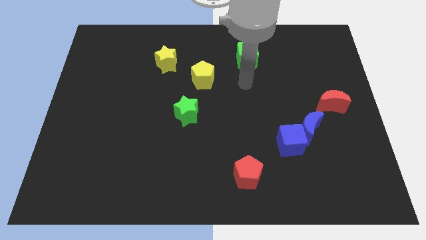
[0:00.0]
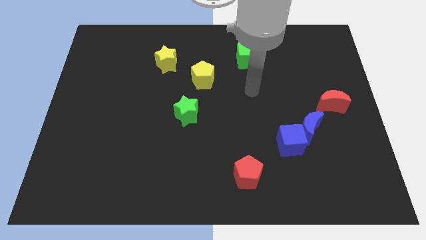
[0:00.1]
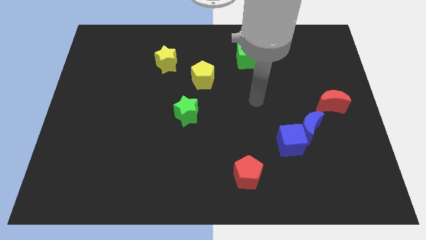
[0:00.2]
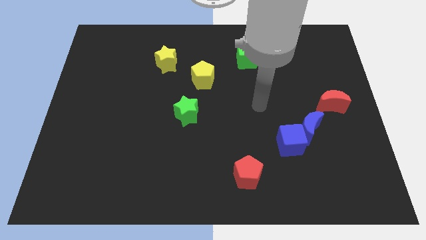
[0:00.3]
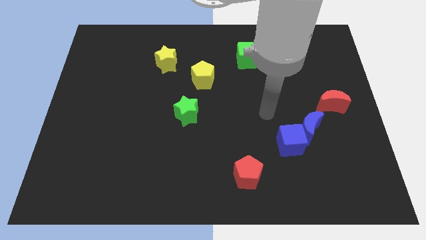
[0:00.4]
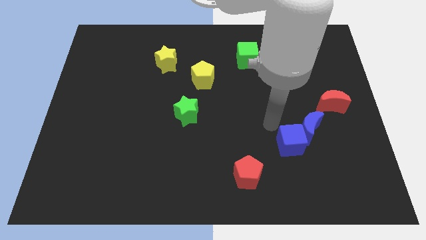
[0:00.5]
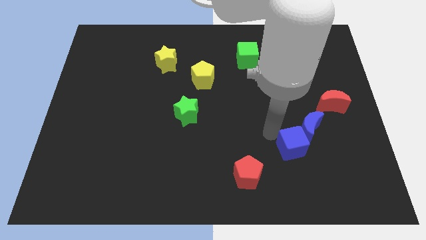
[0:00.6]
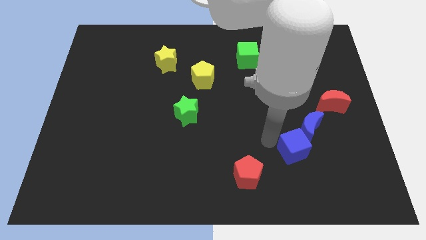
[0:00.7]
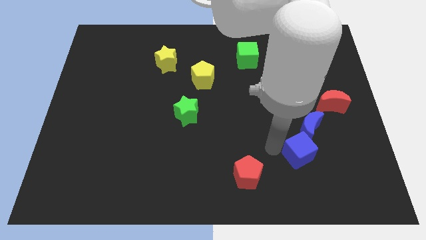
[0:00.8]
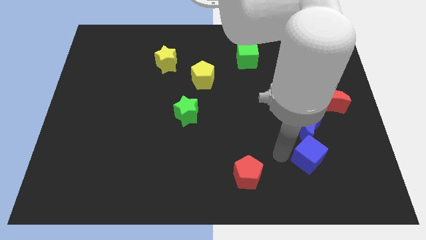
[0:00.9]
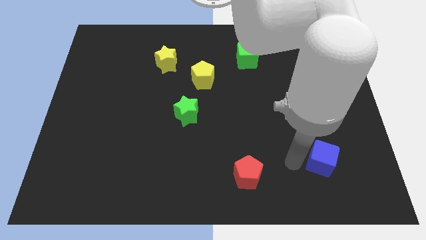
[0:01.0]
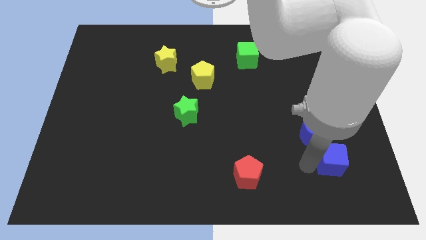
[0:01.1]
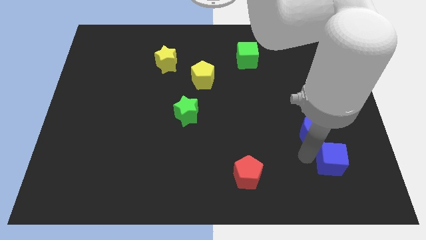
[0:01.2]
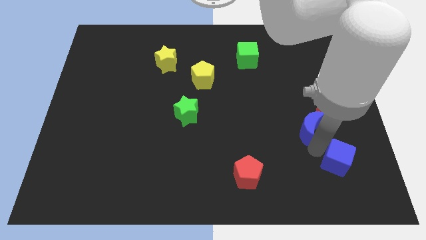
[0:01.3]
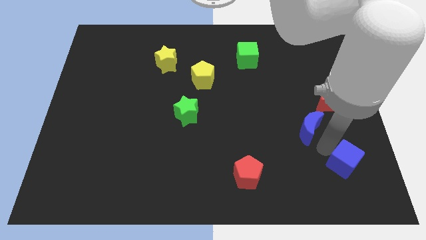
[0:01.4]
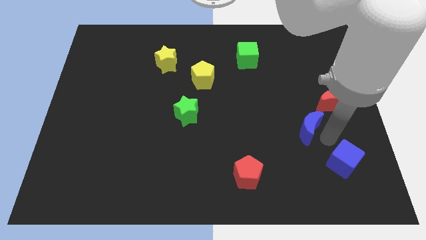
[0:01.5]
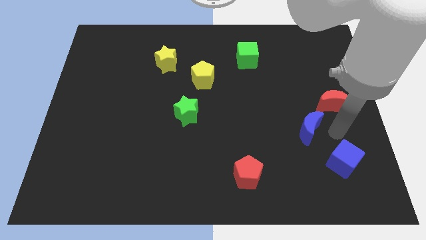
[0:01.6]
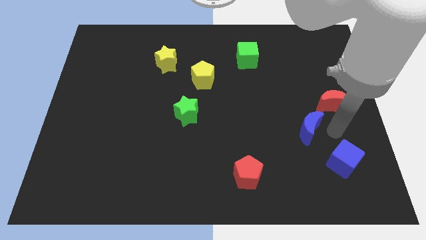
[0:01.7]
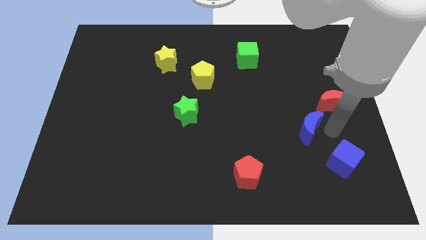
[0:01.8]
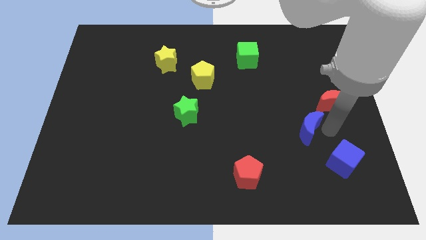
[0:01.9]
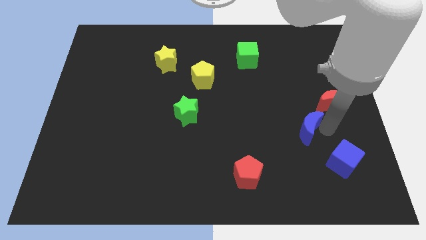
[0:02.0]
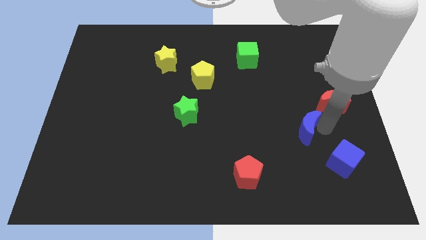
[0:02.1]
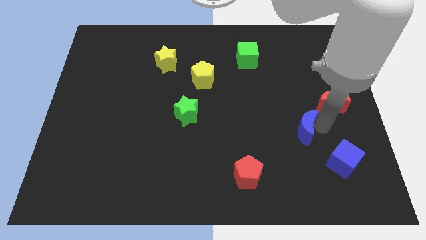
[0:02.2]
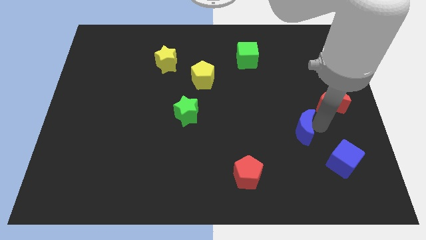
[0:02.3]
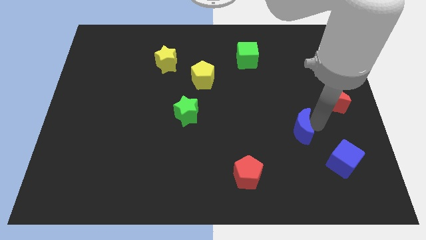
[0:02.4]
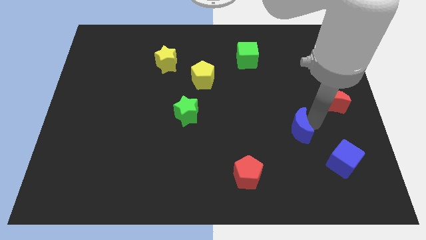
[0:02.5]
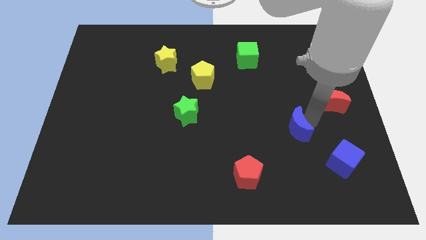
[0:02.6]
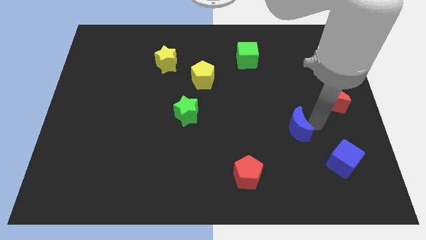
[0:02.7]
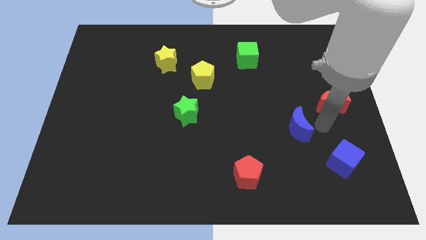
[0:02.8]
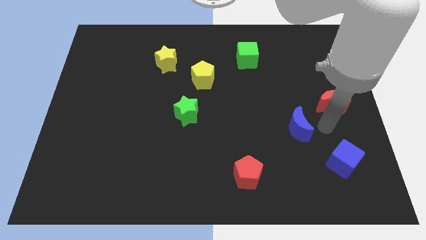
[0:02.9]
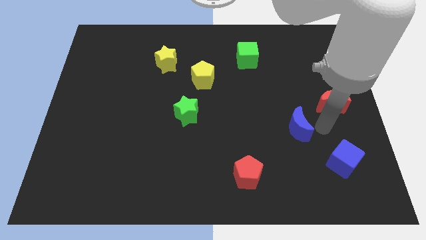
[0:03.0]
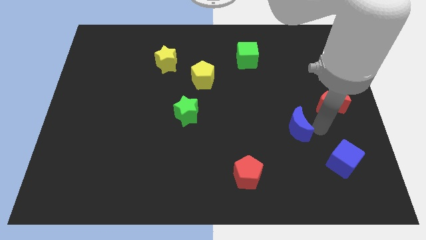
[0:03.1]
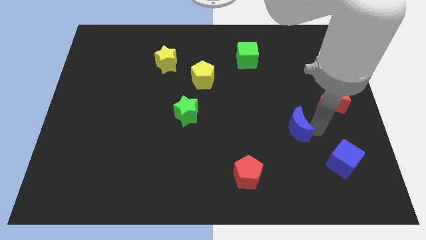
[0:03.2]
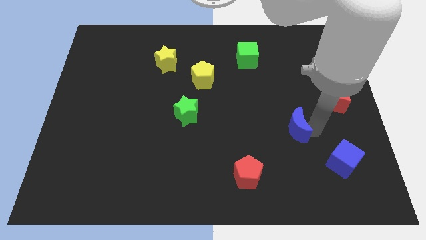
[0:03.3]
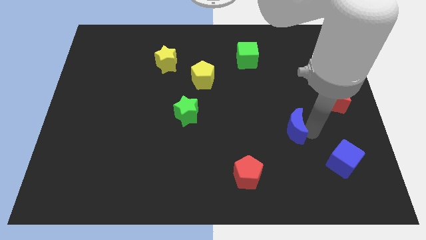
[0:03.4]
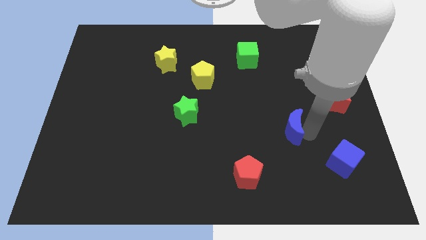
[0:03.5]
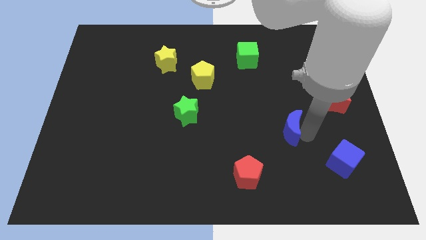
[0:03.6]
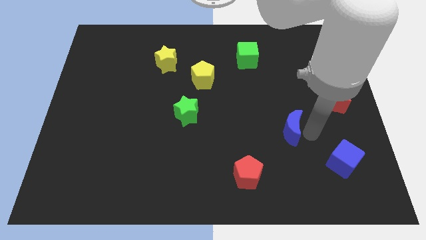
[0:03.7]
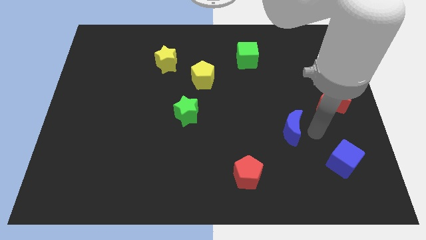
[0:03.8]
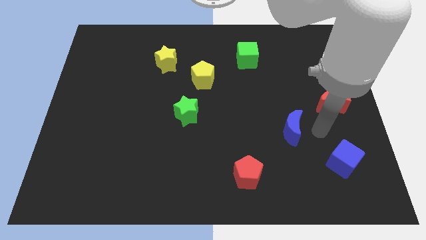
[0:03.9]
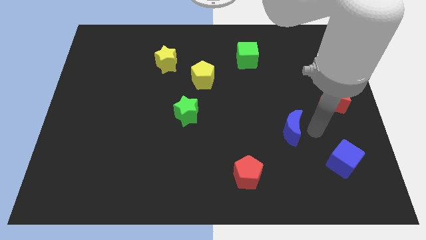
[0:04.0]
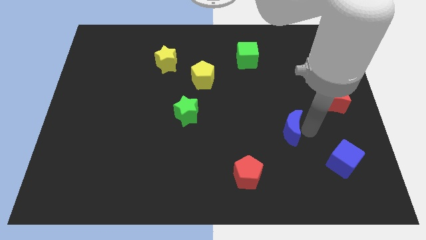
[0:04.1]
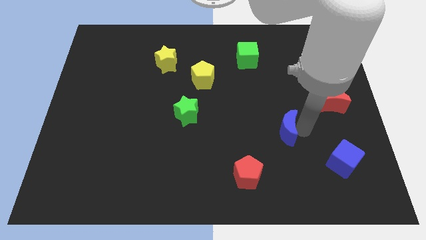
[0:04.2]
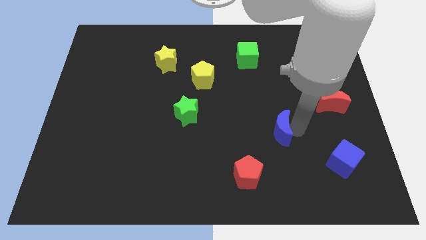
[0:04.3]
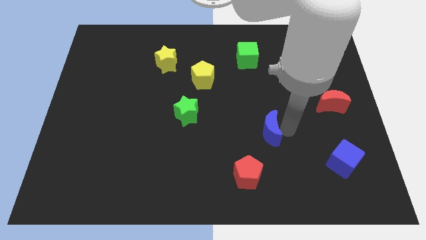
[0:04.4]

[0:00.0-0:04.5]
move the blue moon to the left slightly

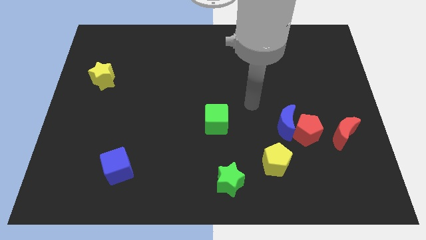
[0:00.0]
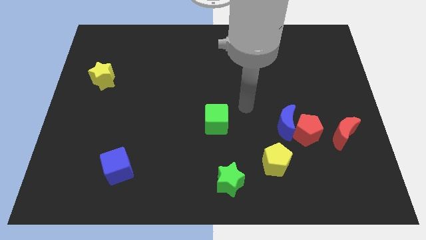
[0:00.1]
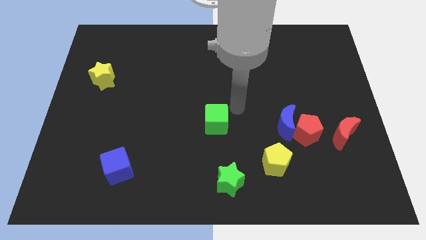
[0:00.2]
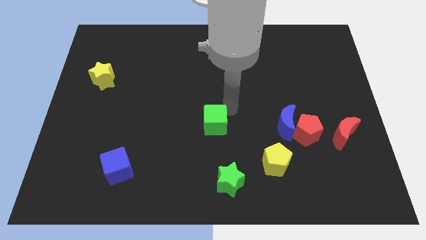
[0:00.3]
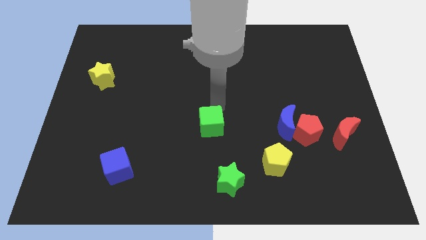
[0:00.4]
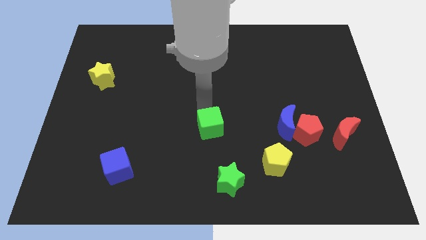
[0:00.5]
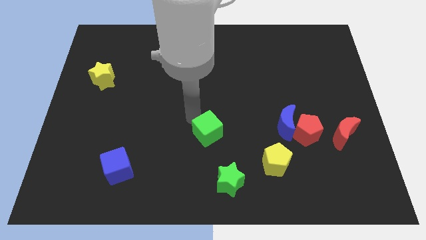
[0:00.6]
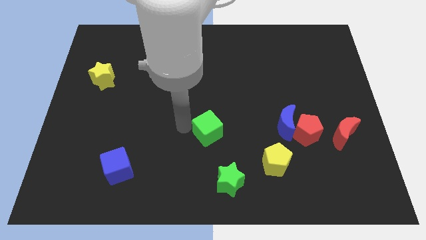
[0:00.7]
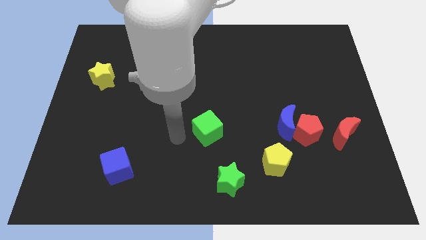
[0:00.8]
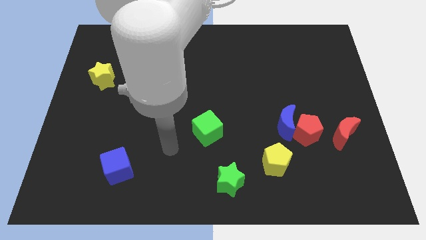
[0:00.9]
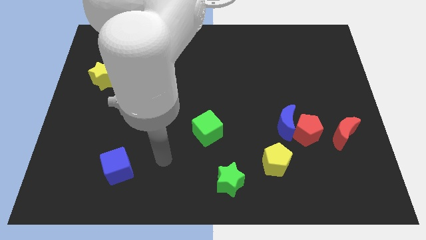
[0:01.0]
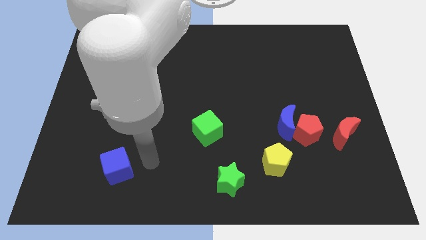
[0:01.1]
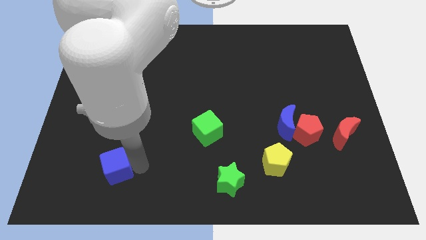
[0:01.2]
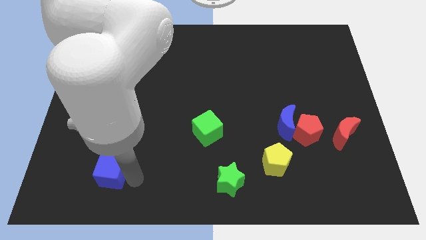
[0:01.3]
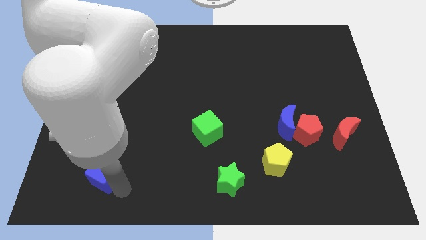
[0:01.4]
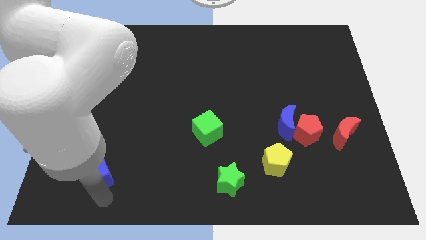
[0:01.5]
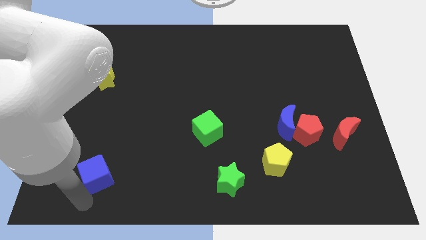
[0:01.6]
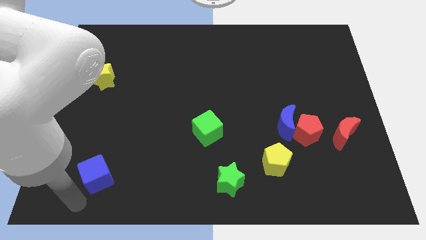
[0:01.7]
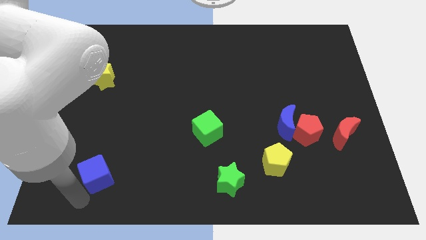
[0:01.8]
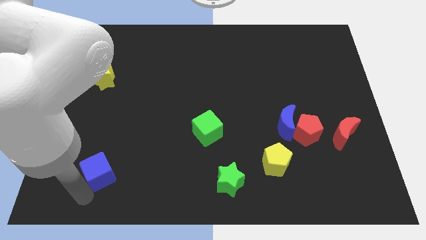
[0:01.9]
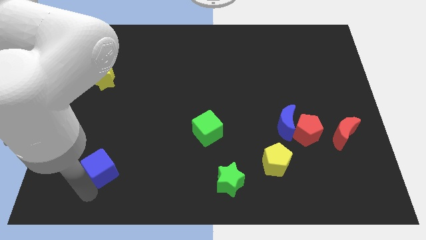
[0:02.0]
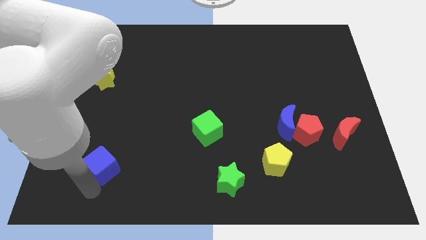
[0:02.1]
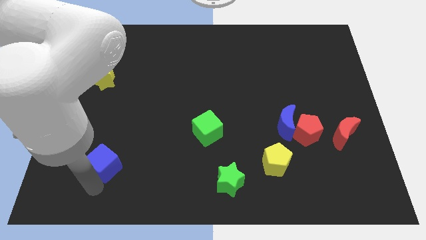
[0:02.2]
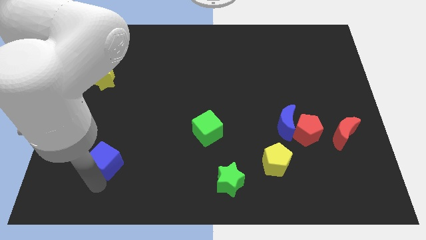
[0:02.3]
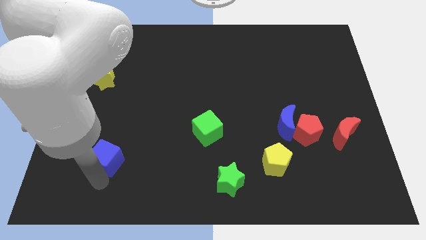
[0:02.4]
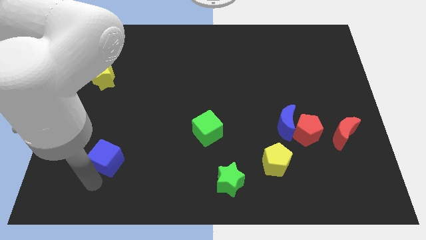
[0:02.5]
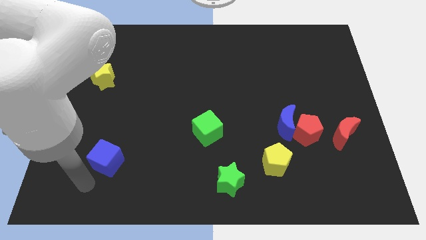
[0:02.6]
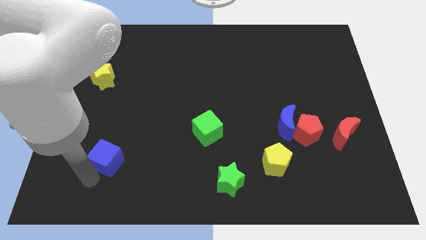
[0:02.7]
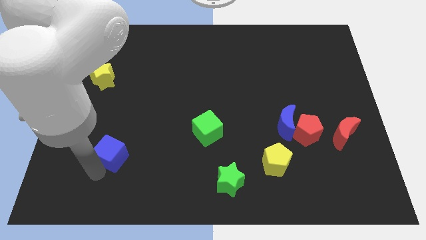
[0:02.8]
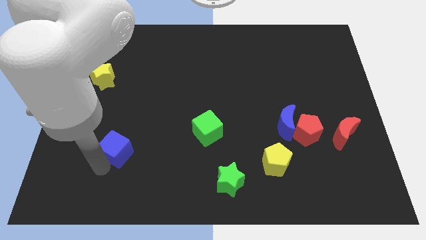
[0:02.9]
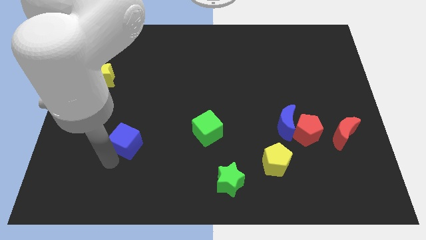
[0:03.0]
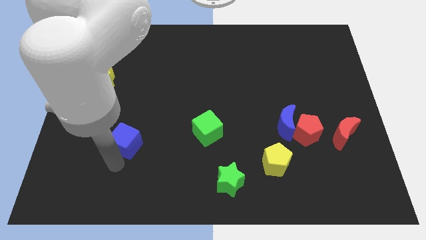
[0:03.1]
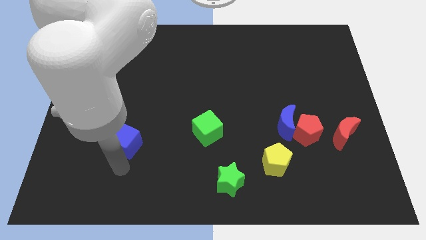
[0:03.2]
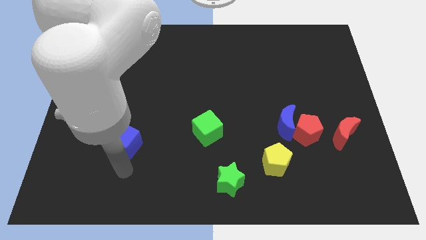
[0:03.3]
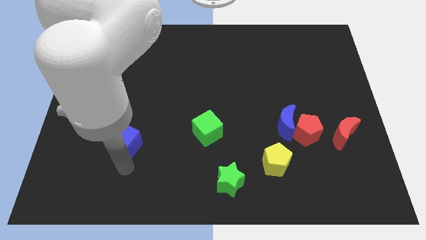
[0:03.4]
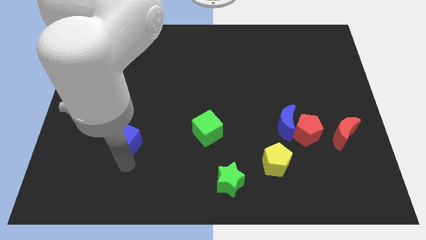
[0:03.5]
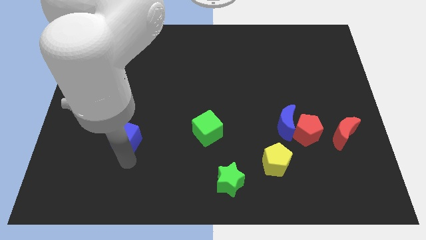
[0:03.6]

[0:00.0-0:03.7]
slide the blue cube up a little bit
